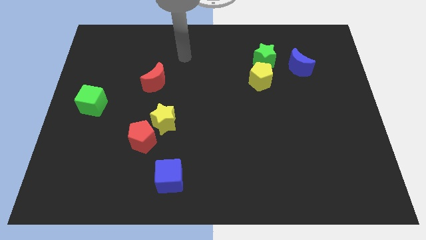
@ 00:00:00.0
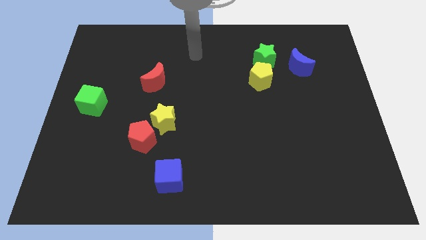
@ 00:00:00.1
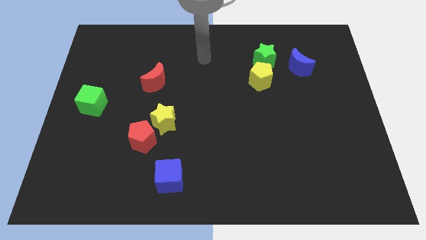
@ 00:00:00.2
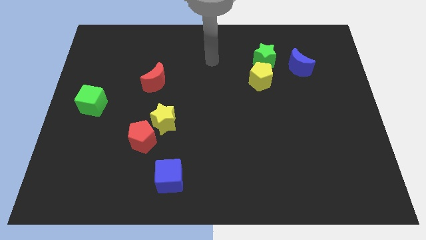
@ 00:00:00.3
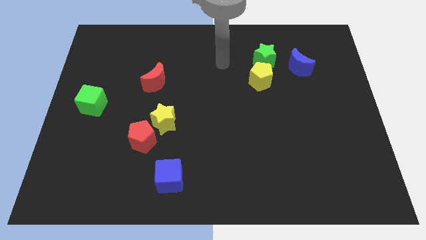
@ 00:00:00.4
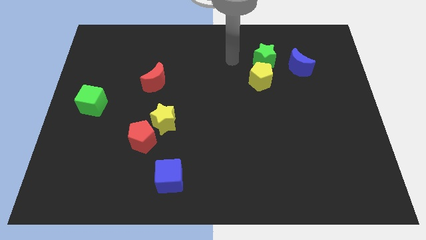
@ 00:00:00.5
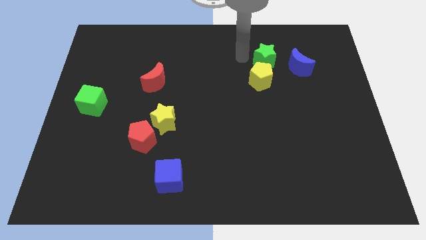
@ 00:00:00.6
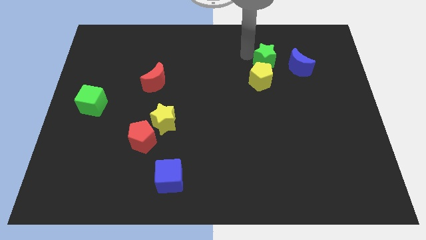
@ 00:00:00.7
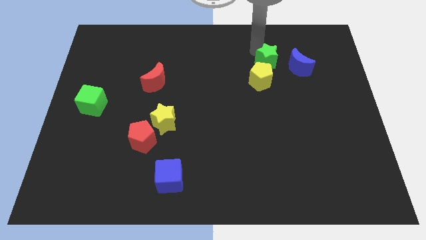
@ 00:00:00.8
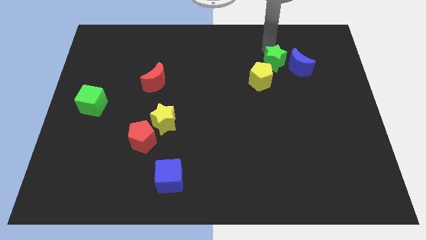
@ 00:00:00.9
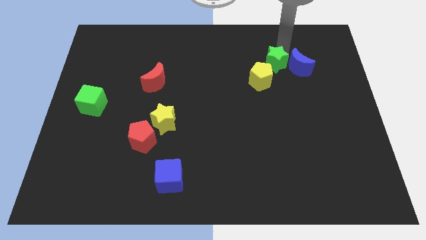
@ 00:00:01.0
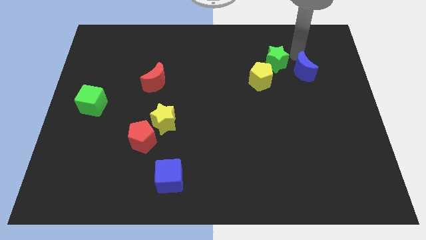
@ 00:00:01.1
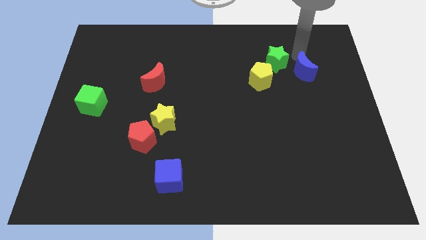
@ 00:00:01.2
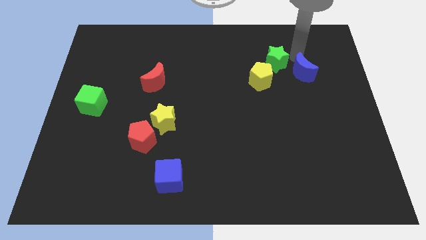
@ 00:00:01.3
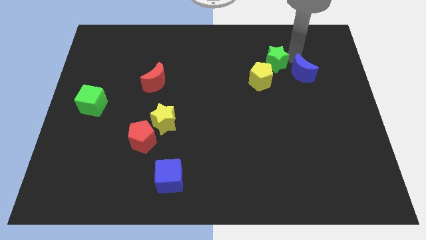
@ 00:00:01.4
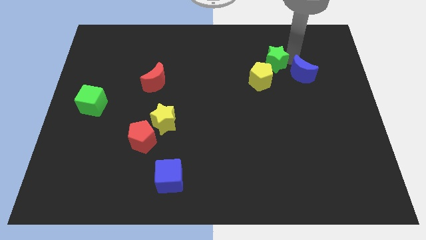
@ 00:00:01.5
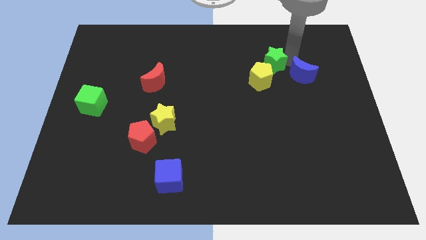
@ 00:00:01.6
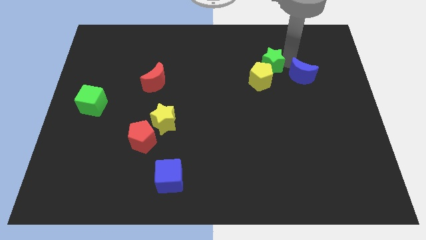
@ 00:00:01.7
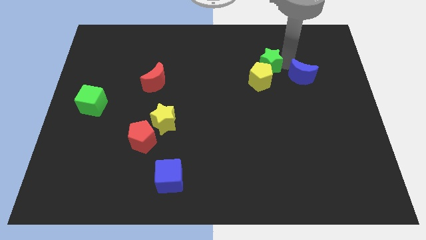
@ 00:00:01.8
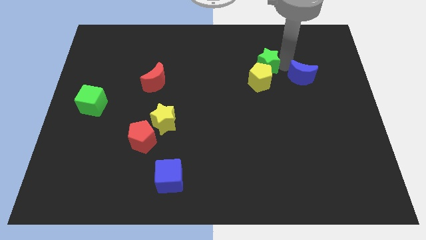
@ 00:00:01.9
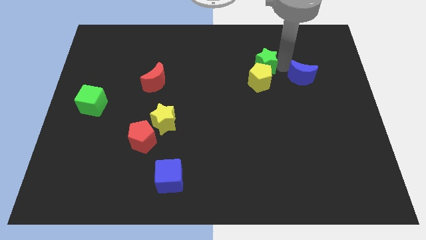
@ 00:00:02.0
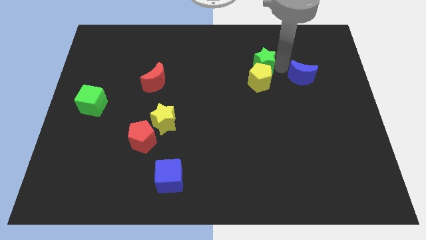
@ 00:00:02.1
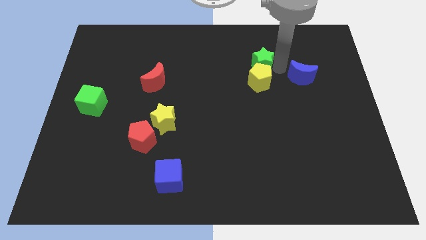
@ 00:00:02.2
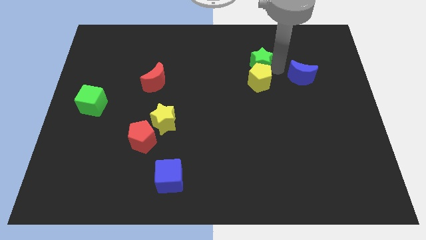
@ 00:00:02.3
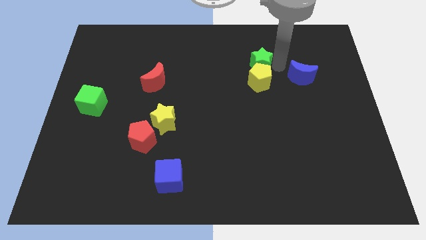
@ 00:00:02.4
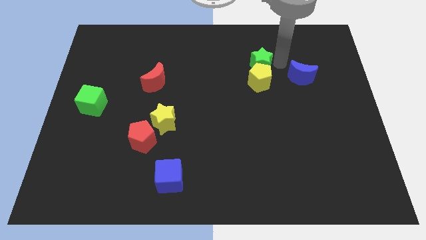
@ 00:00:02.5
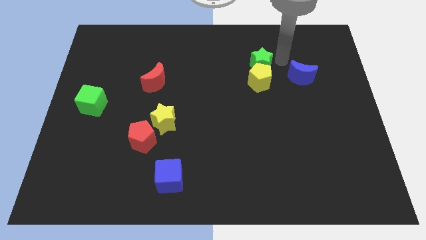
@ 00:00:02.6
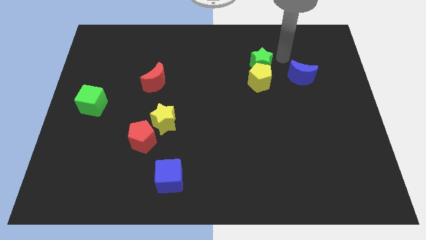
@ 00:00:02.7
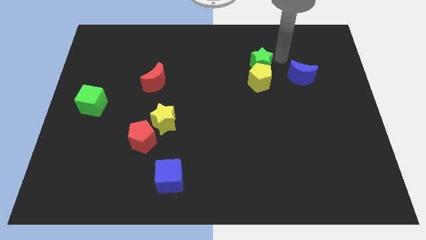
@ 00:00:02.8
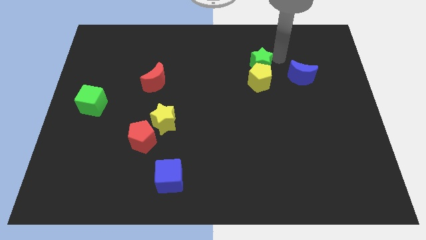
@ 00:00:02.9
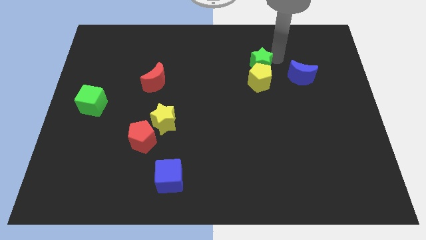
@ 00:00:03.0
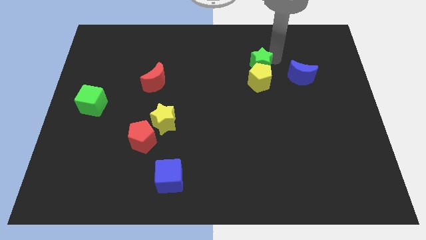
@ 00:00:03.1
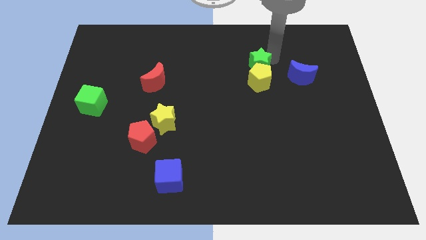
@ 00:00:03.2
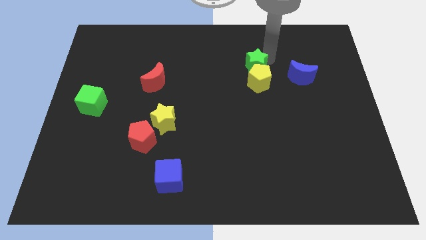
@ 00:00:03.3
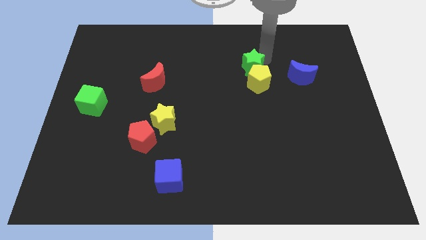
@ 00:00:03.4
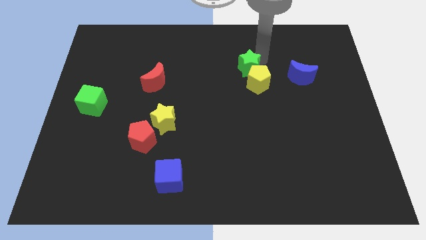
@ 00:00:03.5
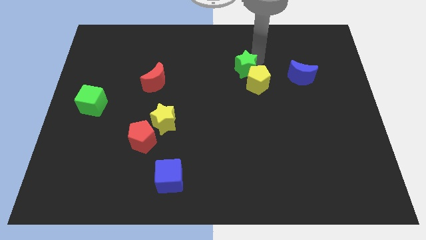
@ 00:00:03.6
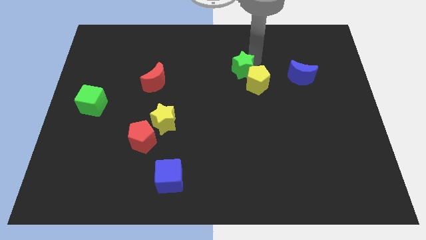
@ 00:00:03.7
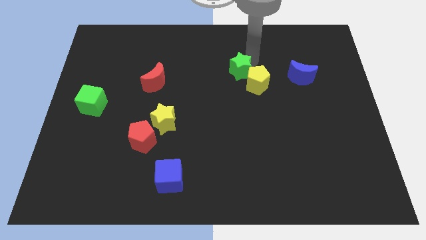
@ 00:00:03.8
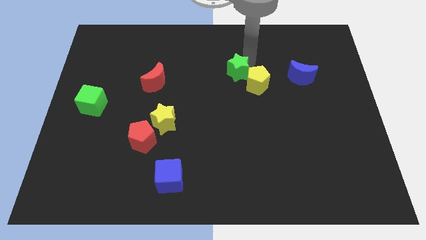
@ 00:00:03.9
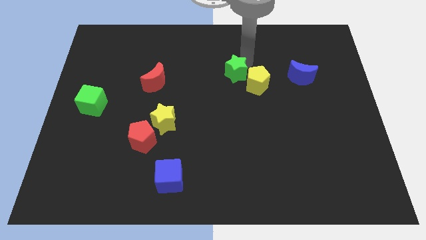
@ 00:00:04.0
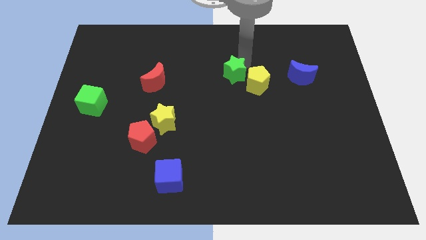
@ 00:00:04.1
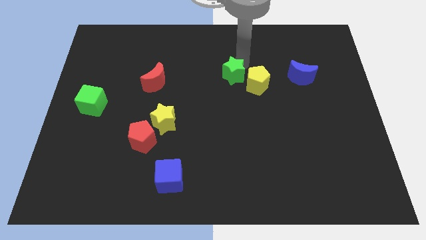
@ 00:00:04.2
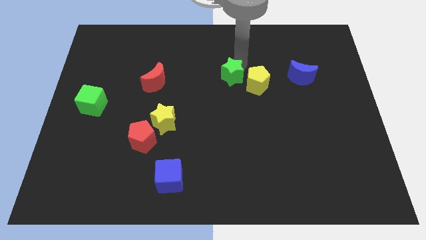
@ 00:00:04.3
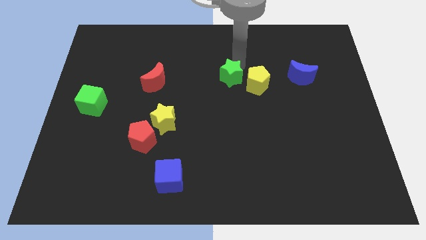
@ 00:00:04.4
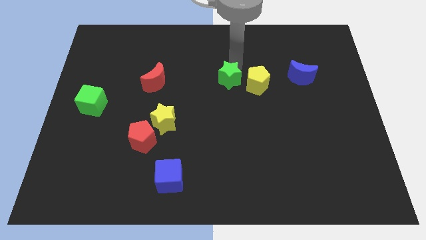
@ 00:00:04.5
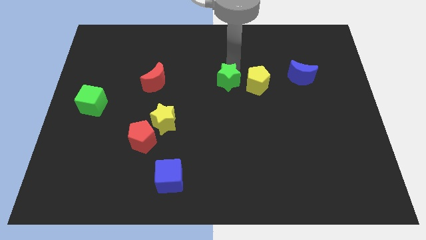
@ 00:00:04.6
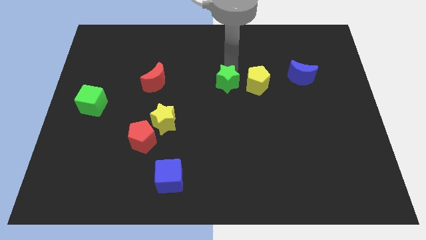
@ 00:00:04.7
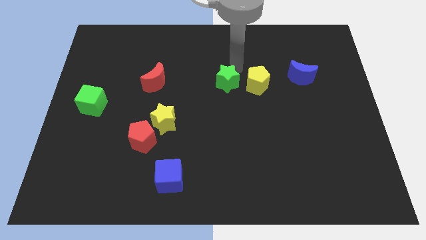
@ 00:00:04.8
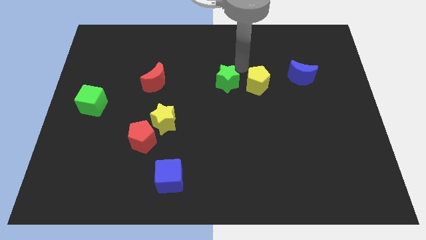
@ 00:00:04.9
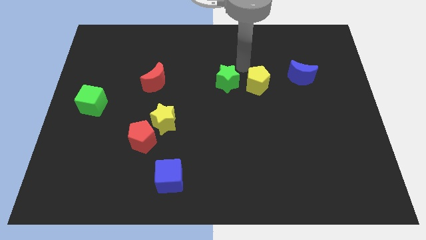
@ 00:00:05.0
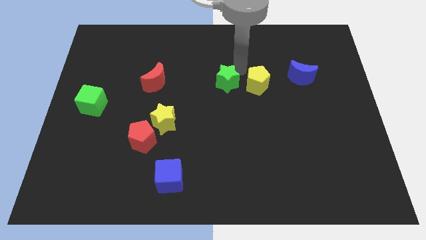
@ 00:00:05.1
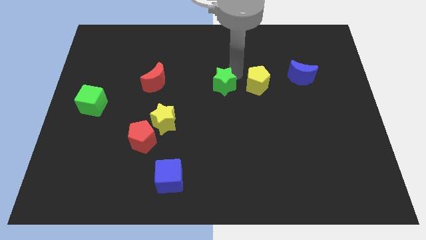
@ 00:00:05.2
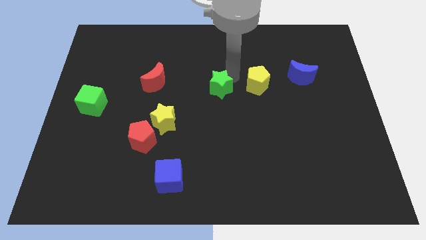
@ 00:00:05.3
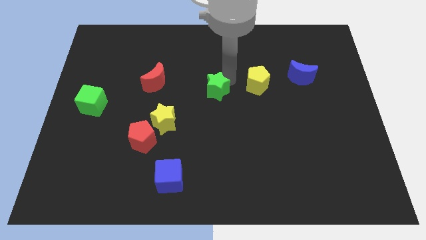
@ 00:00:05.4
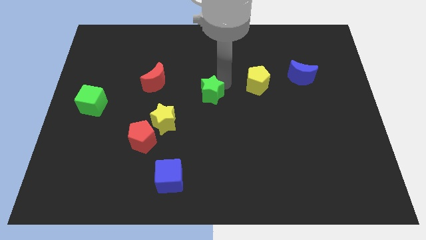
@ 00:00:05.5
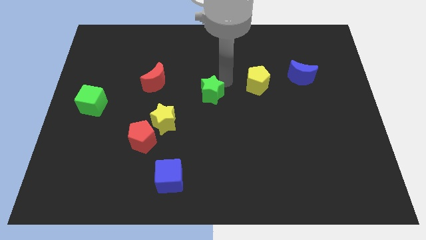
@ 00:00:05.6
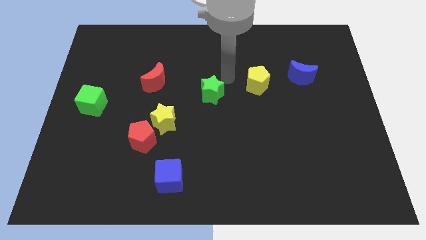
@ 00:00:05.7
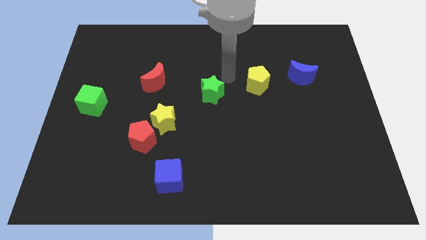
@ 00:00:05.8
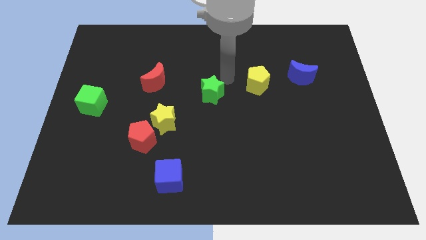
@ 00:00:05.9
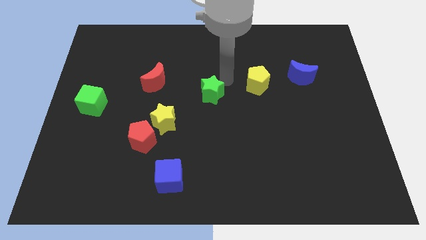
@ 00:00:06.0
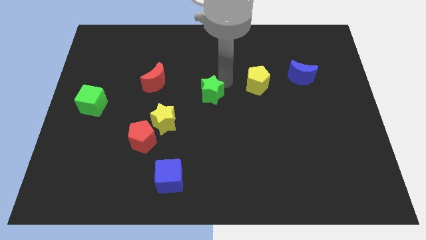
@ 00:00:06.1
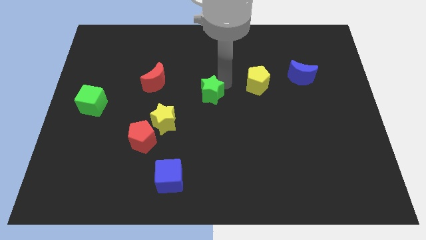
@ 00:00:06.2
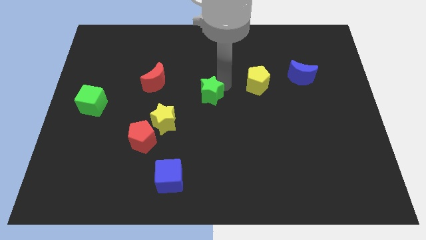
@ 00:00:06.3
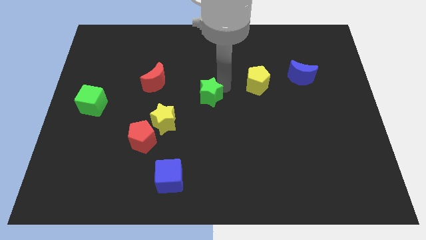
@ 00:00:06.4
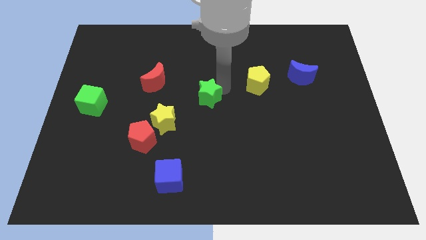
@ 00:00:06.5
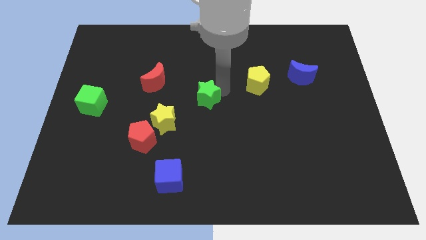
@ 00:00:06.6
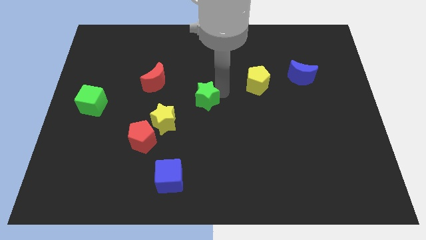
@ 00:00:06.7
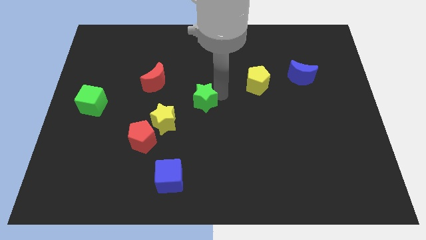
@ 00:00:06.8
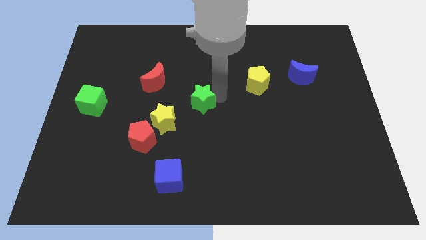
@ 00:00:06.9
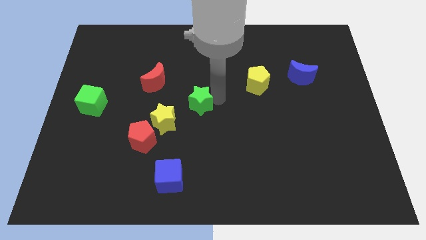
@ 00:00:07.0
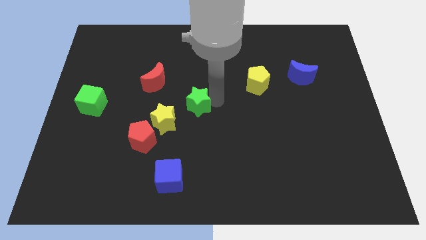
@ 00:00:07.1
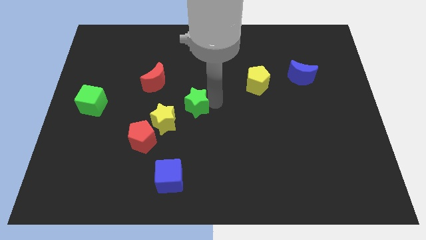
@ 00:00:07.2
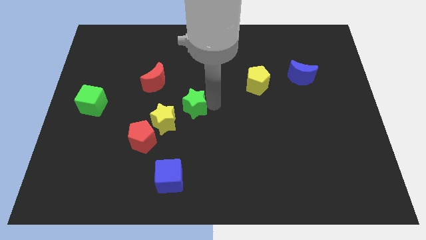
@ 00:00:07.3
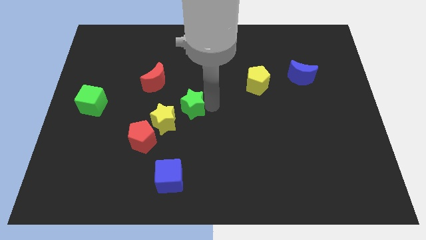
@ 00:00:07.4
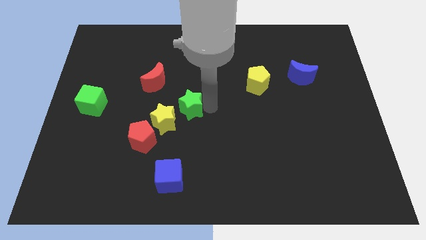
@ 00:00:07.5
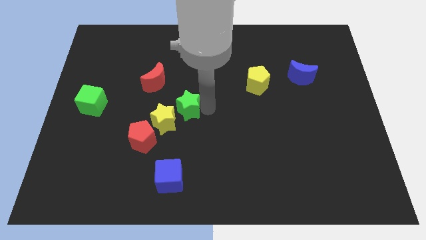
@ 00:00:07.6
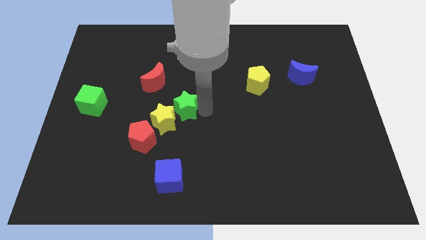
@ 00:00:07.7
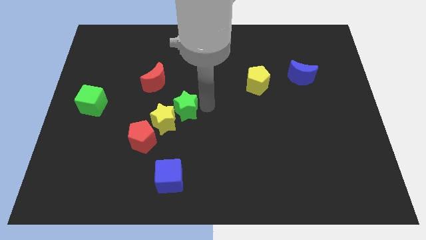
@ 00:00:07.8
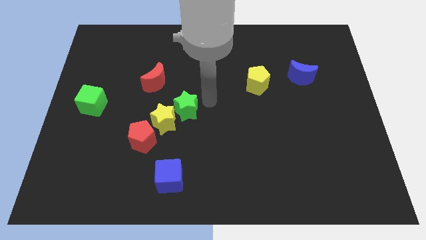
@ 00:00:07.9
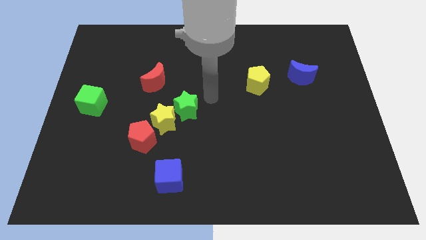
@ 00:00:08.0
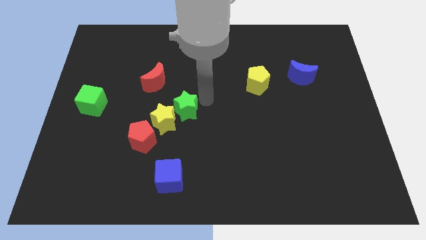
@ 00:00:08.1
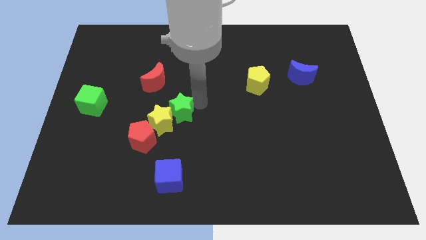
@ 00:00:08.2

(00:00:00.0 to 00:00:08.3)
put the green star next to the yellow star
